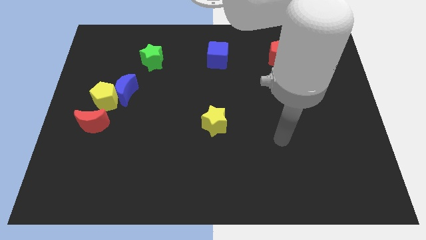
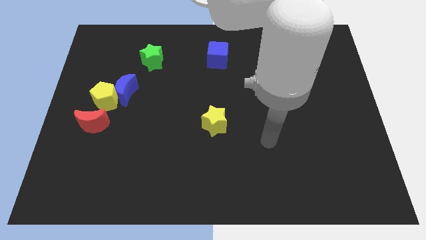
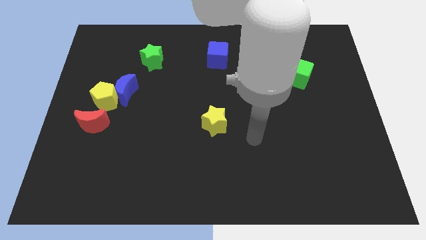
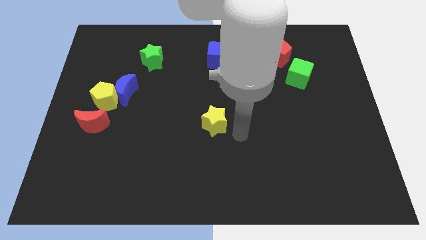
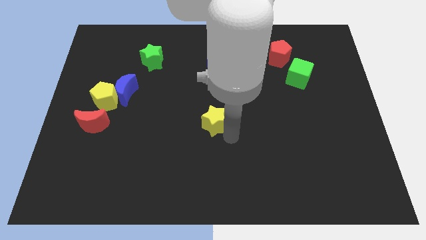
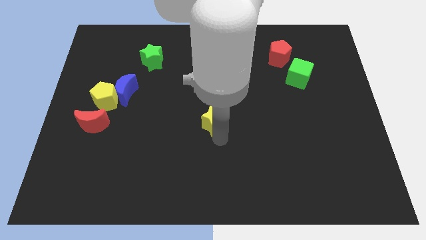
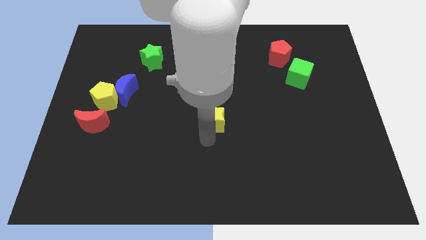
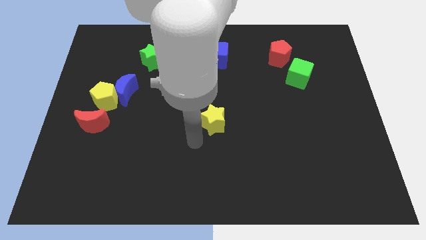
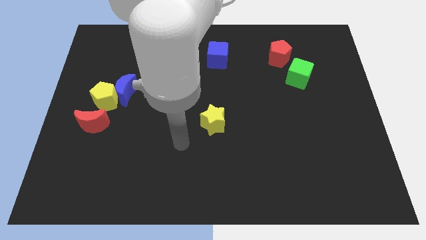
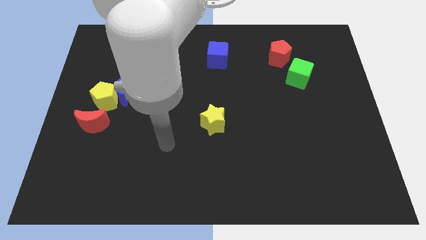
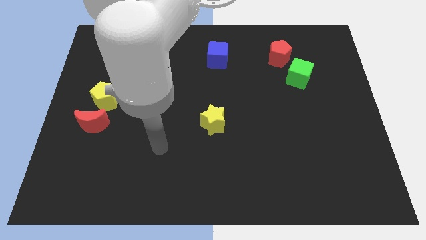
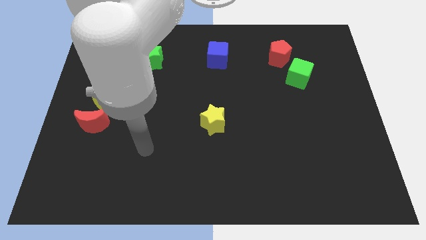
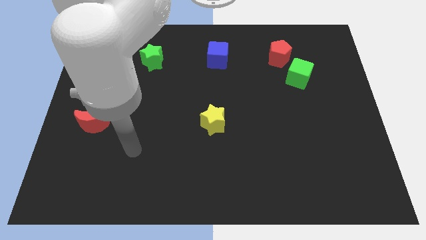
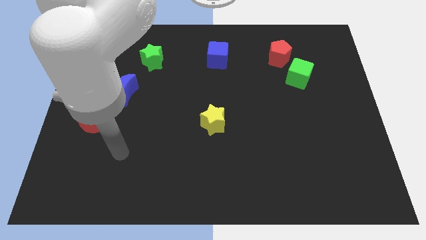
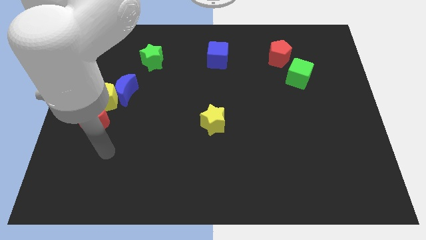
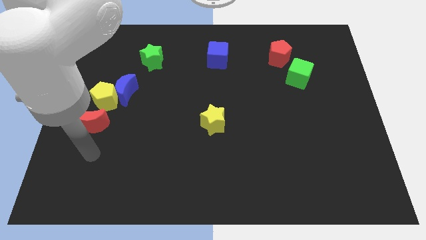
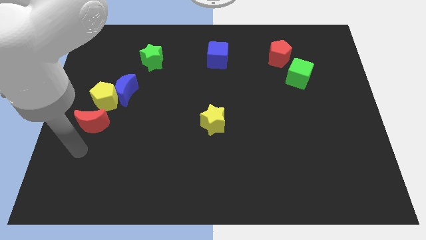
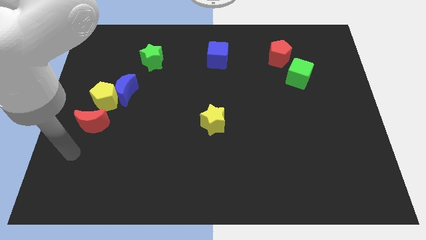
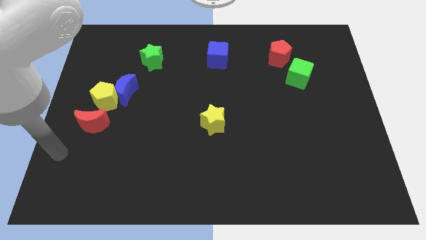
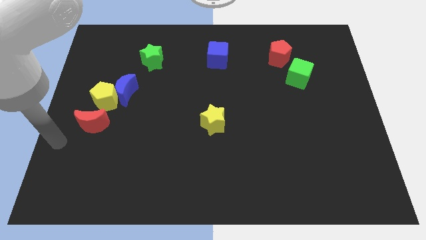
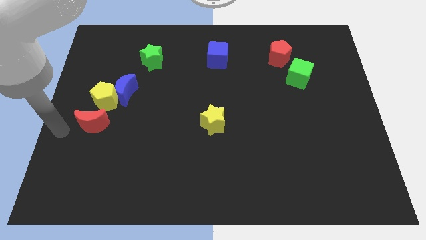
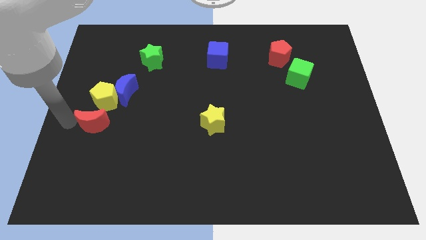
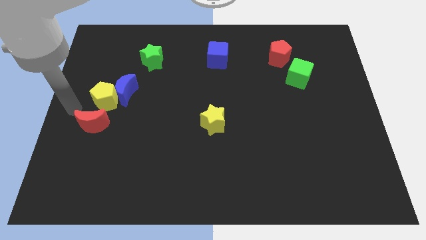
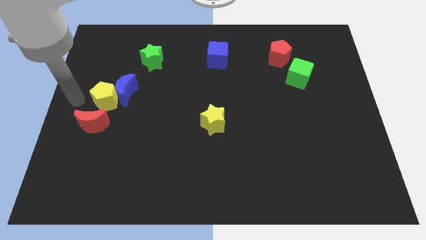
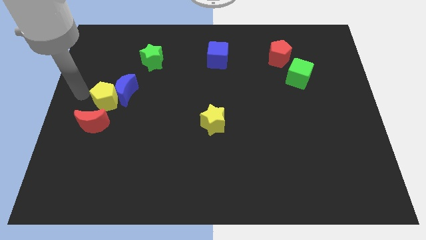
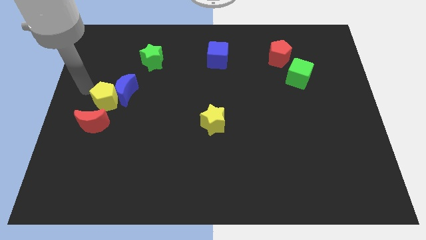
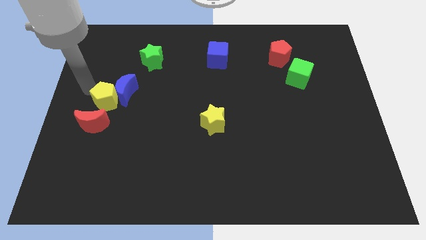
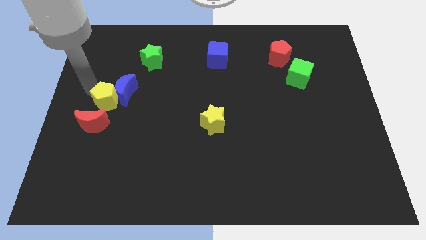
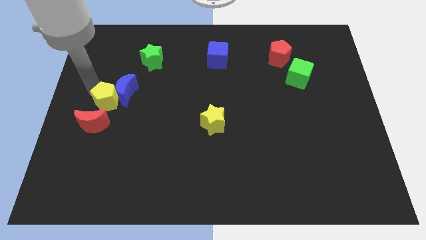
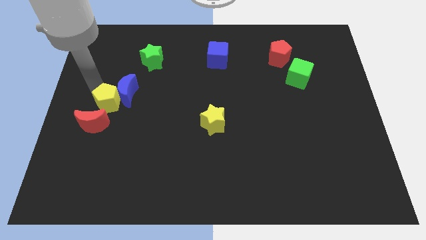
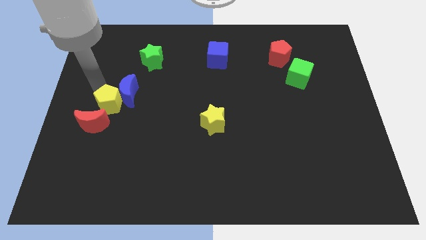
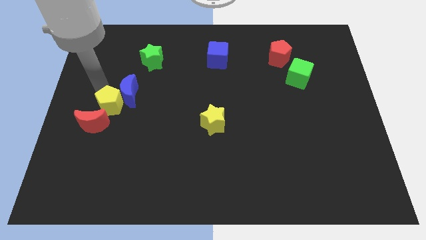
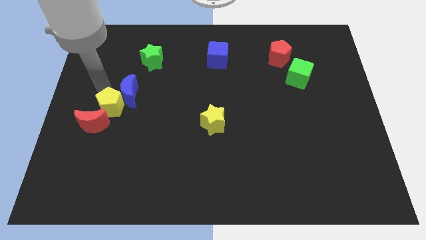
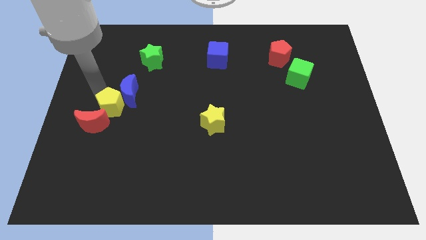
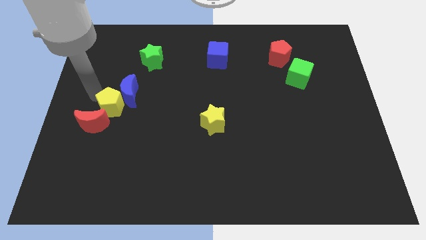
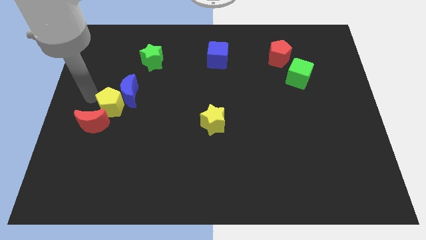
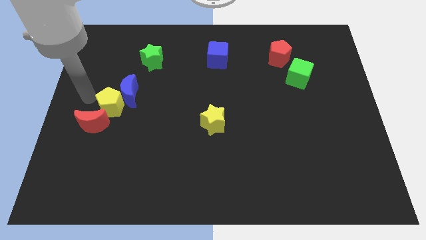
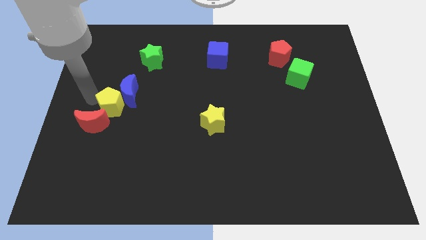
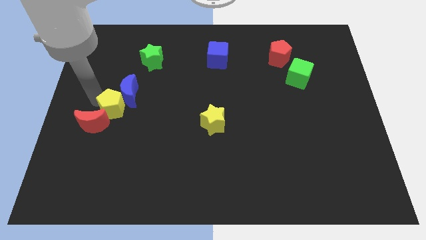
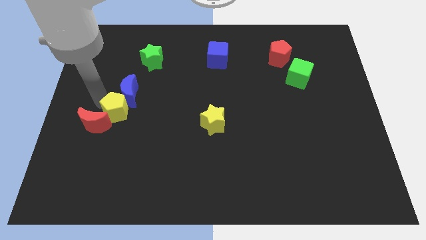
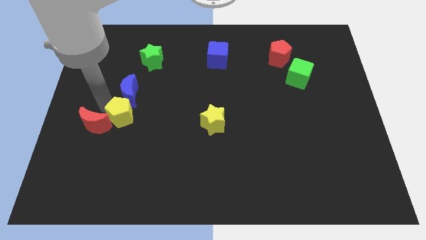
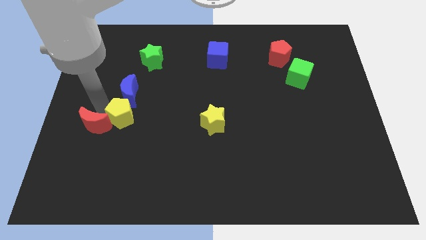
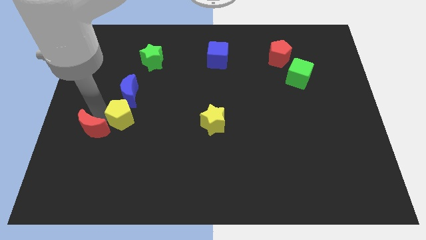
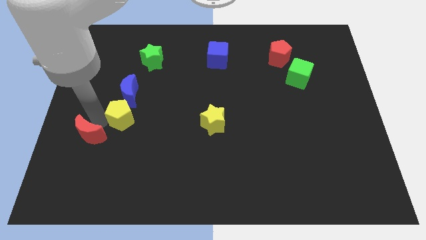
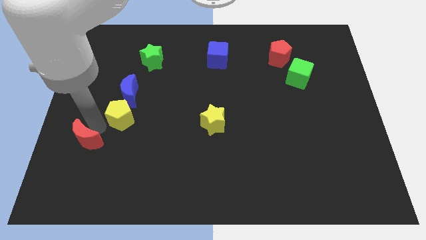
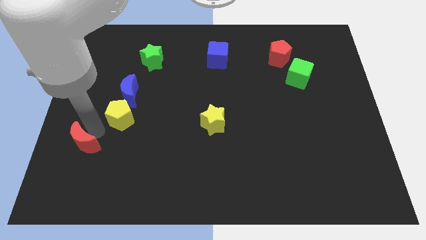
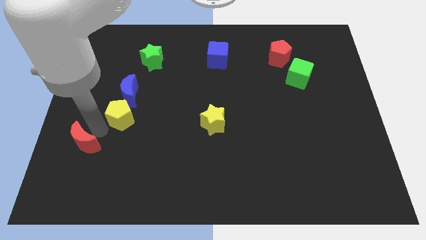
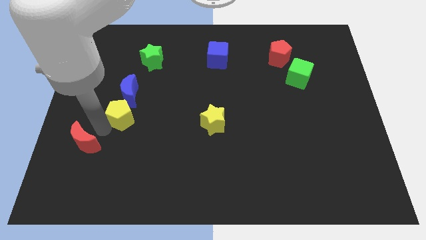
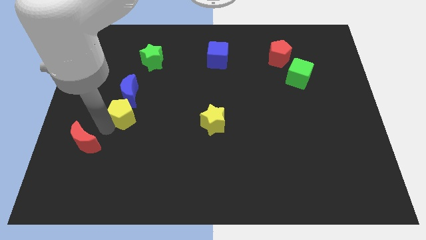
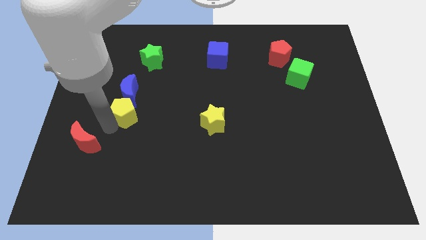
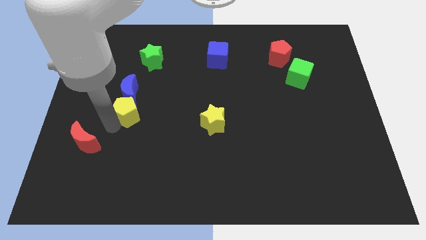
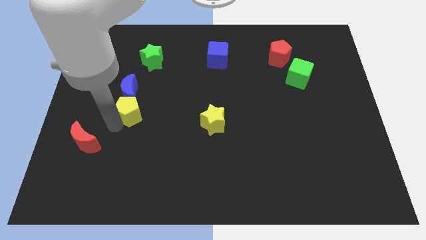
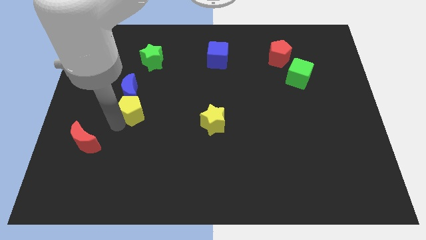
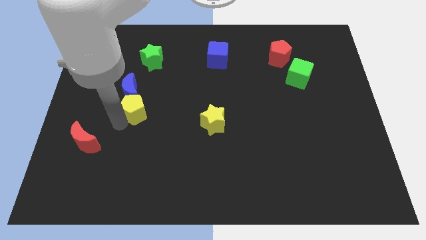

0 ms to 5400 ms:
slightly slide the yellow pentagon to the right

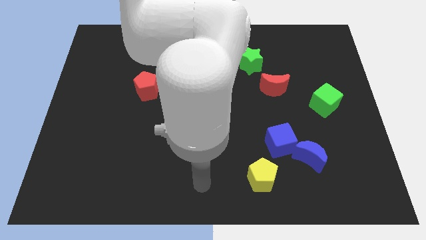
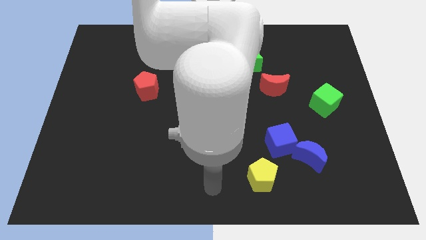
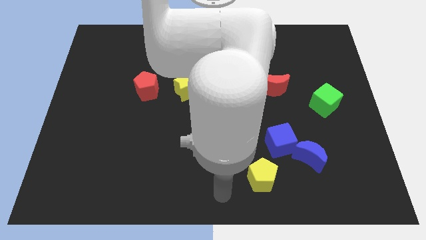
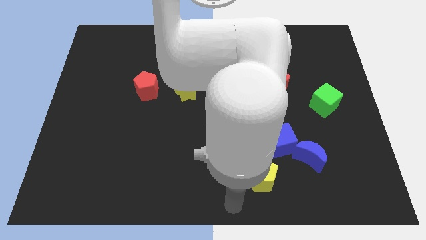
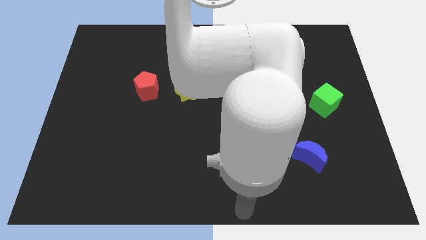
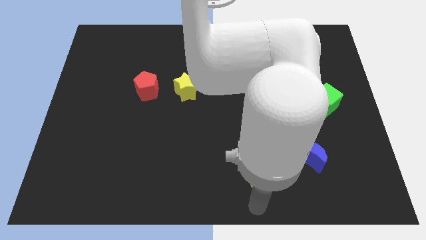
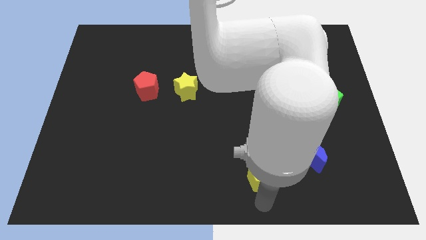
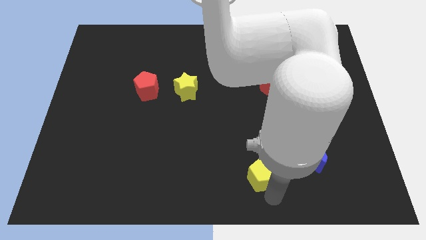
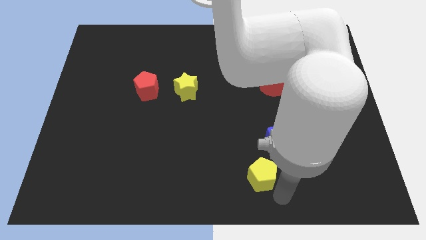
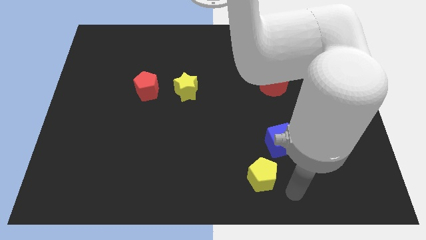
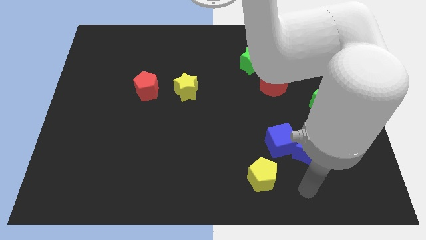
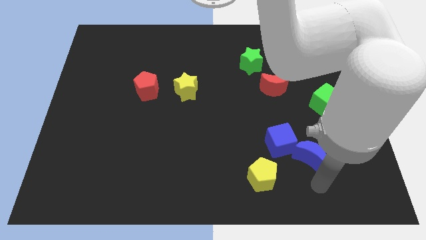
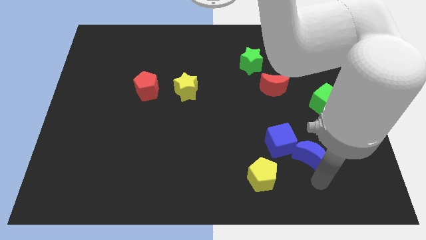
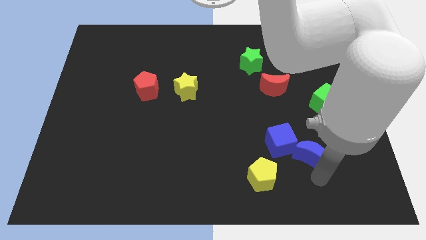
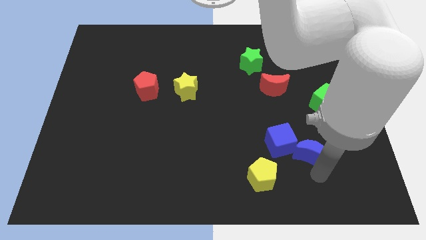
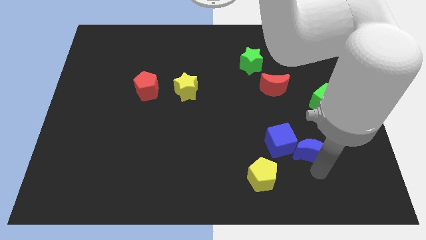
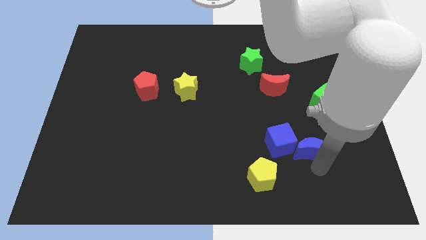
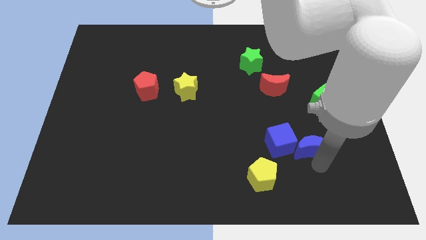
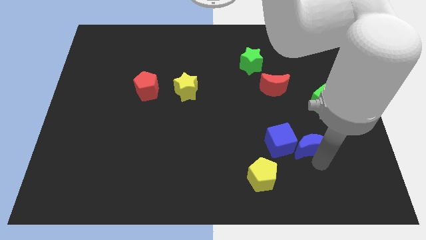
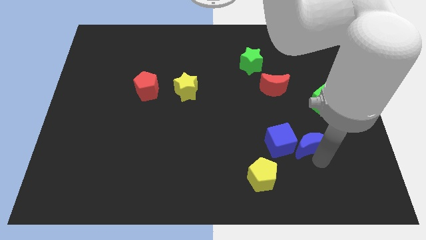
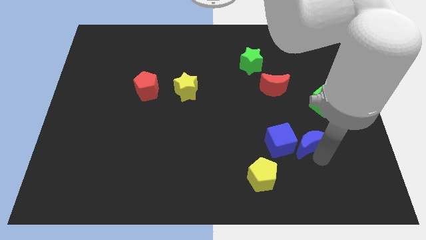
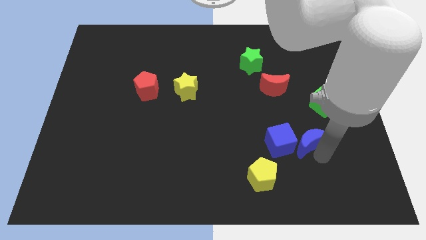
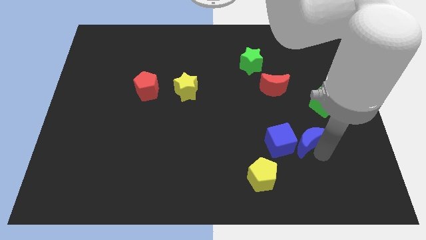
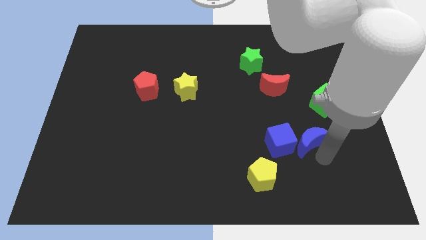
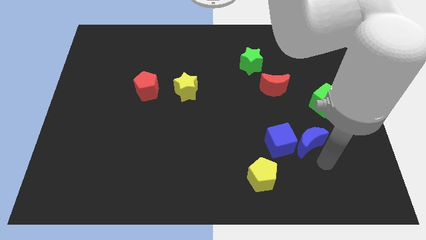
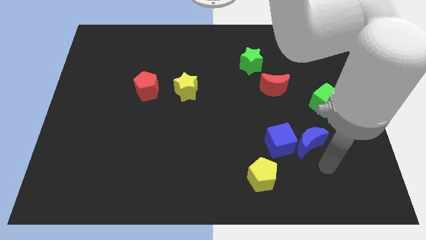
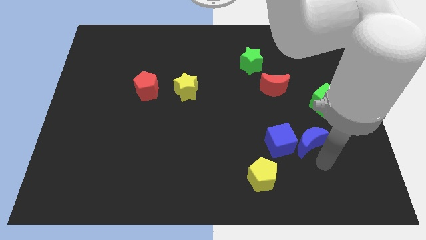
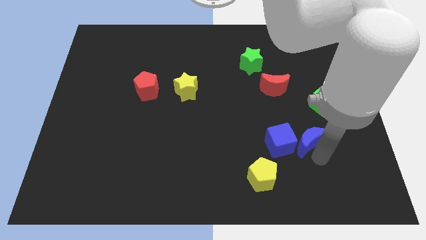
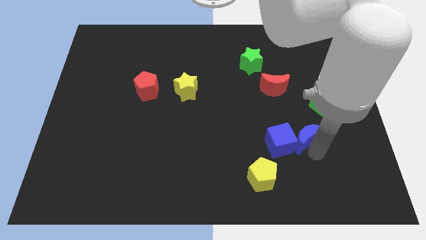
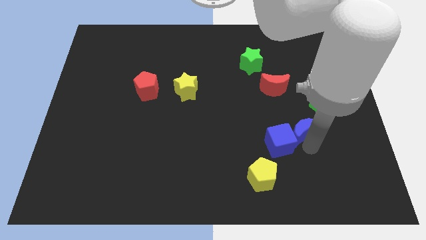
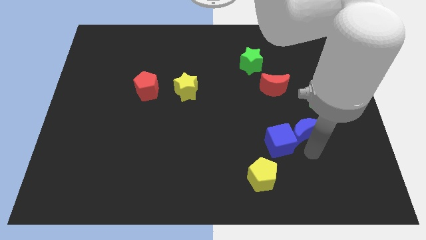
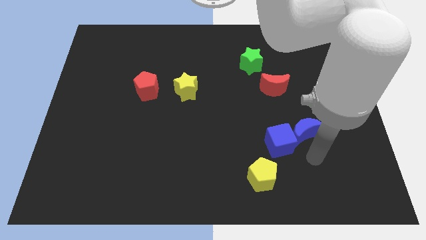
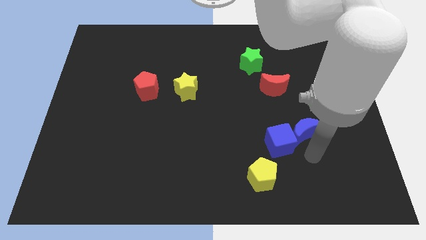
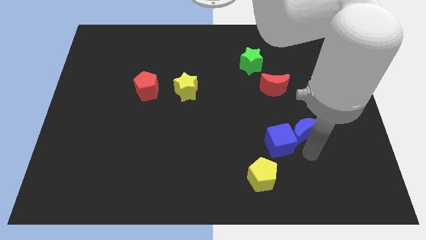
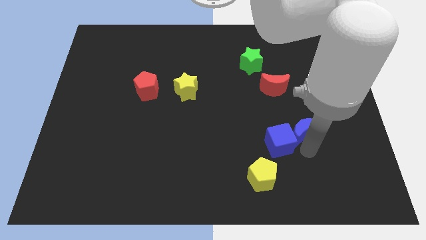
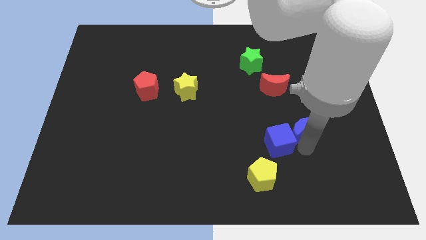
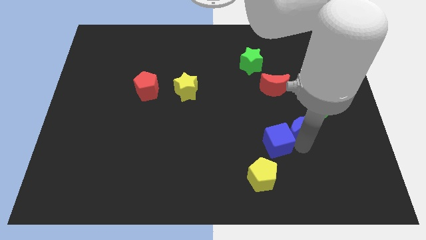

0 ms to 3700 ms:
slightly push the blue moon upwards
